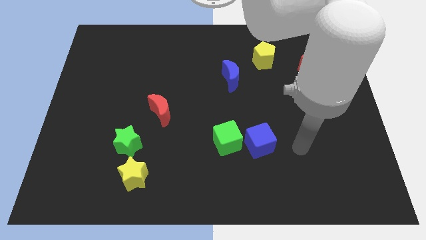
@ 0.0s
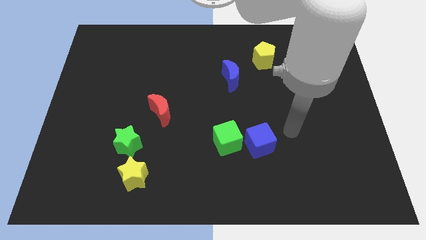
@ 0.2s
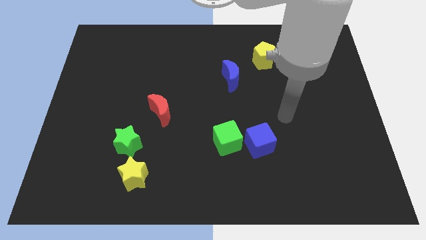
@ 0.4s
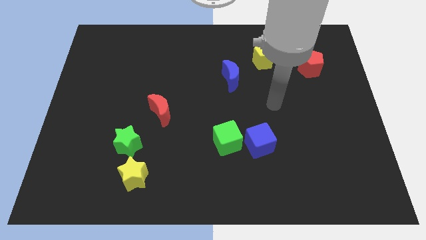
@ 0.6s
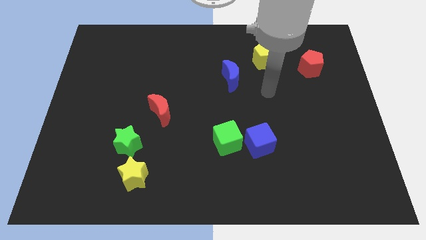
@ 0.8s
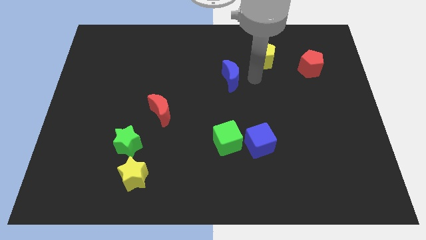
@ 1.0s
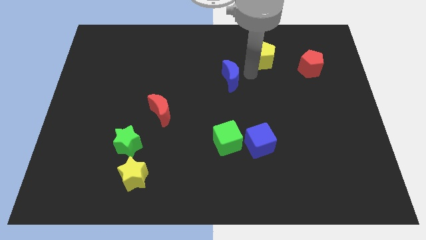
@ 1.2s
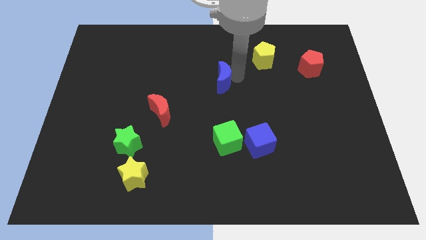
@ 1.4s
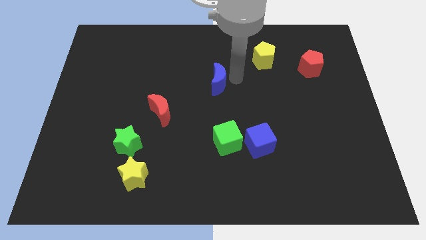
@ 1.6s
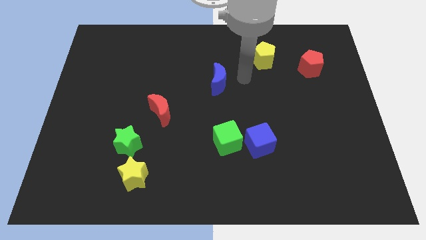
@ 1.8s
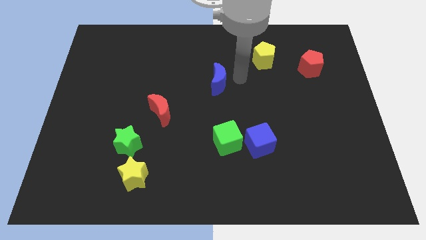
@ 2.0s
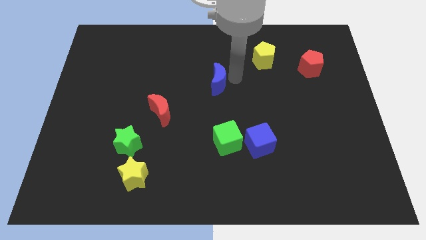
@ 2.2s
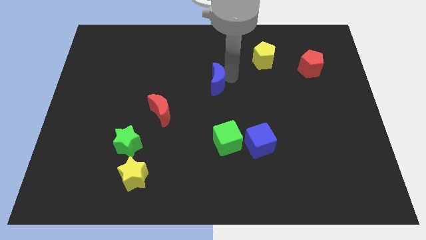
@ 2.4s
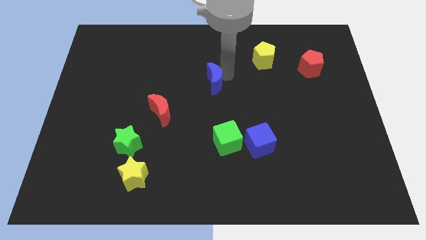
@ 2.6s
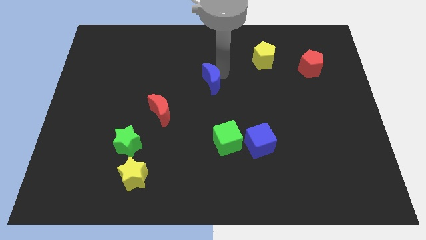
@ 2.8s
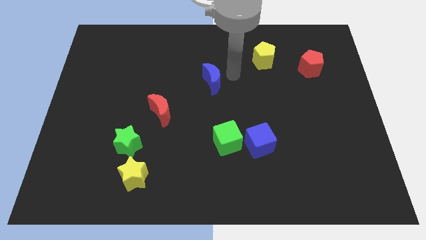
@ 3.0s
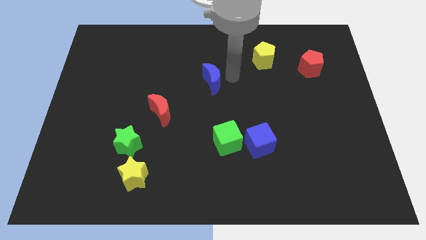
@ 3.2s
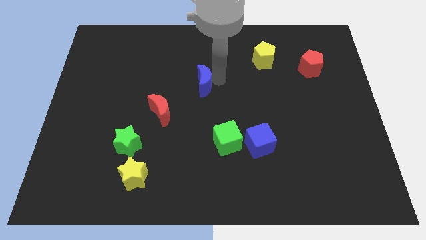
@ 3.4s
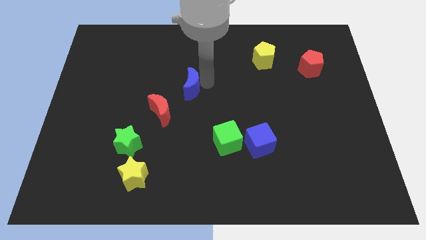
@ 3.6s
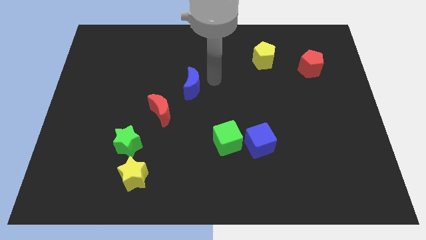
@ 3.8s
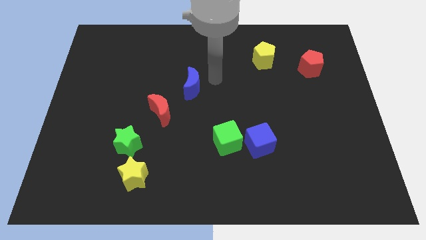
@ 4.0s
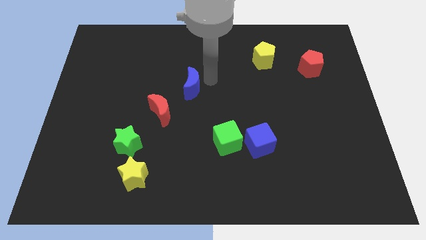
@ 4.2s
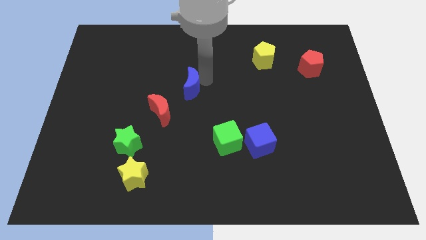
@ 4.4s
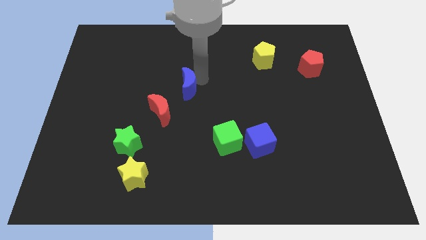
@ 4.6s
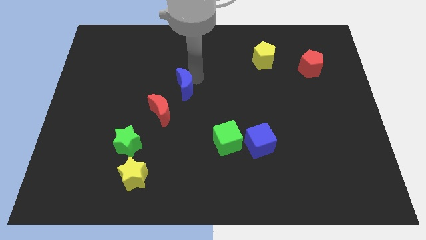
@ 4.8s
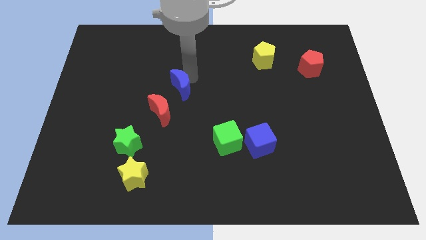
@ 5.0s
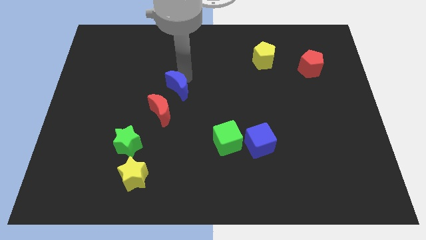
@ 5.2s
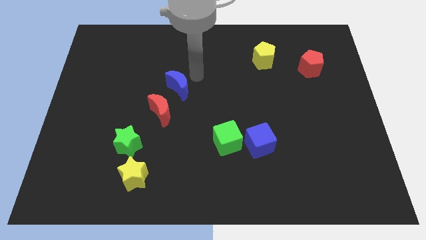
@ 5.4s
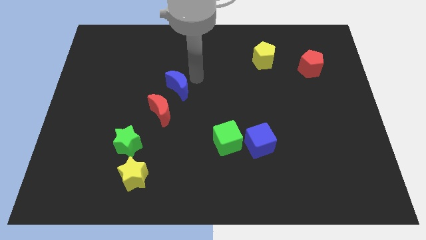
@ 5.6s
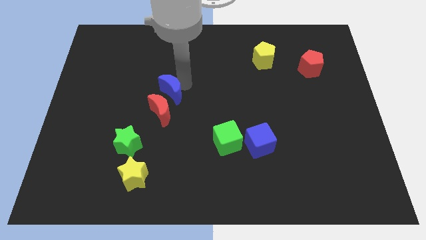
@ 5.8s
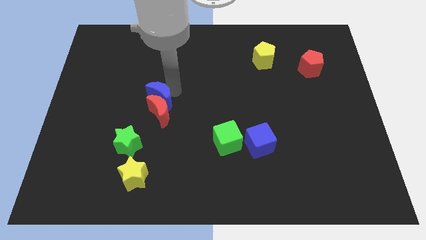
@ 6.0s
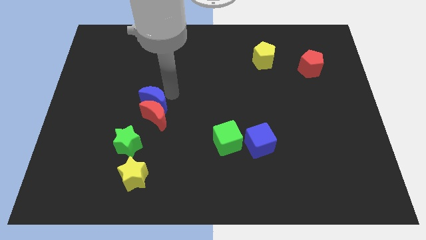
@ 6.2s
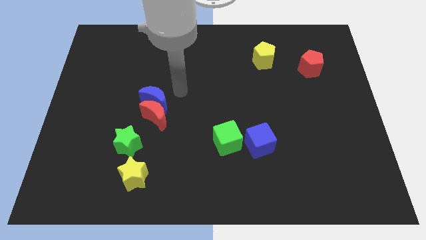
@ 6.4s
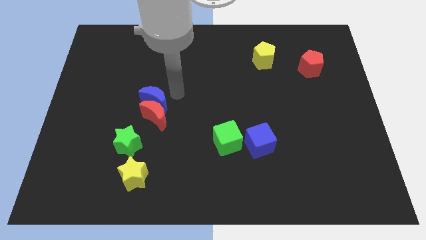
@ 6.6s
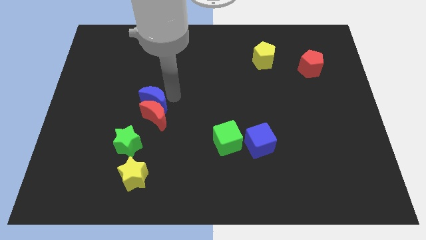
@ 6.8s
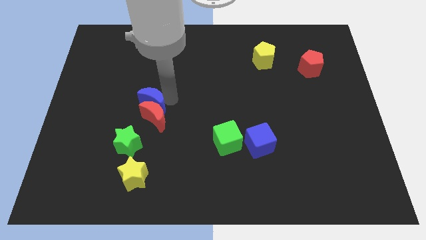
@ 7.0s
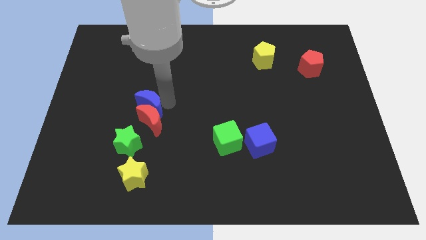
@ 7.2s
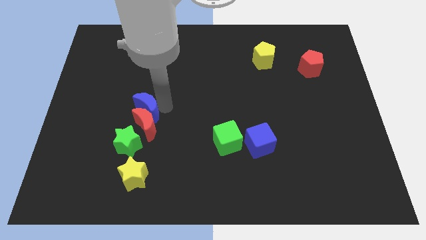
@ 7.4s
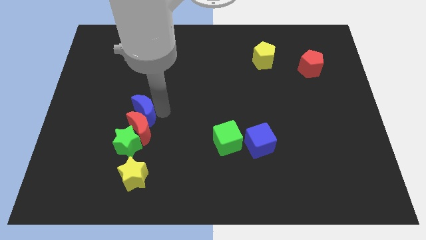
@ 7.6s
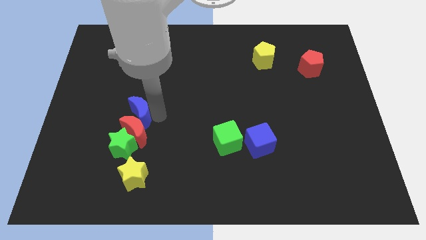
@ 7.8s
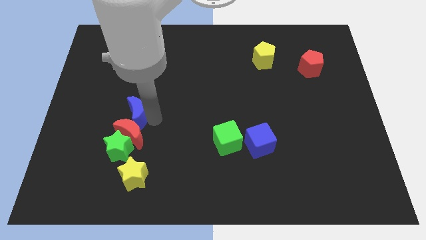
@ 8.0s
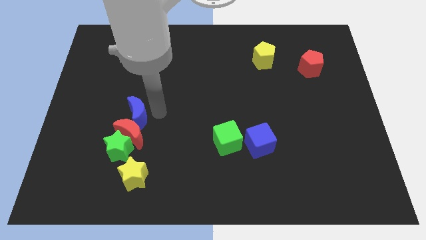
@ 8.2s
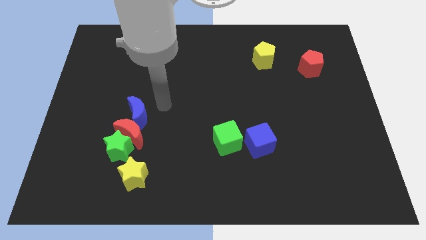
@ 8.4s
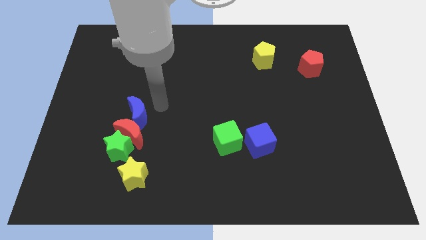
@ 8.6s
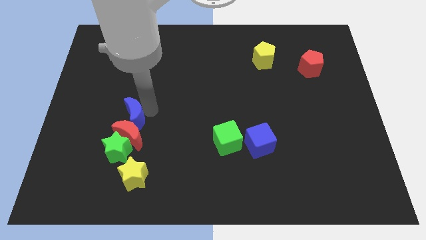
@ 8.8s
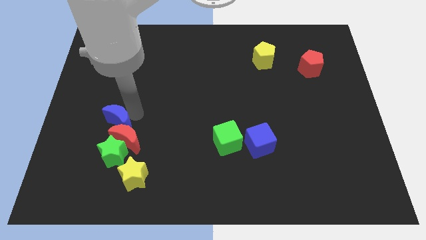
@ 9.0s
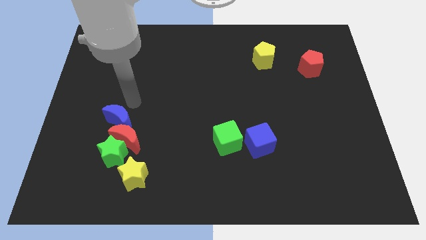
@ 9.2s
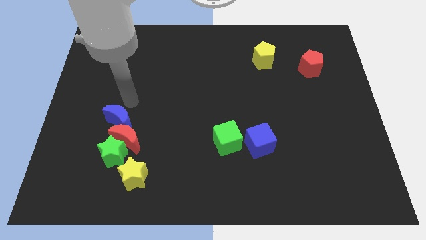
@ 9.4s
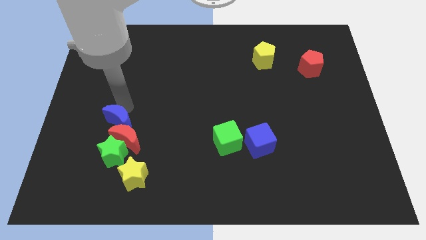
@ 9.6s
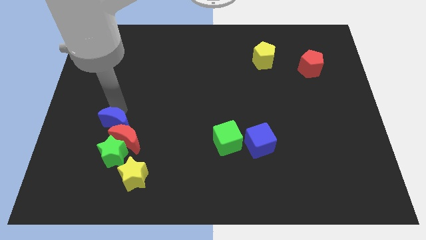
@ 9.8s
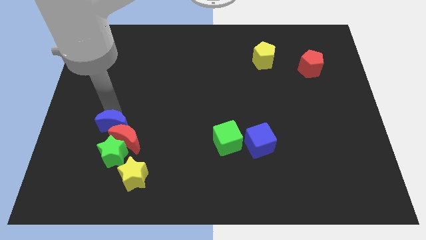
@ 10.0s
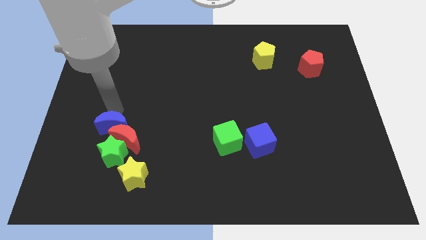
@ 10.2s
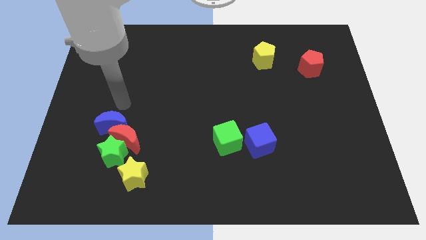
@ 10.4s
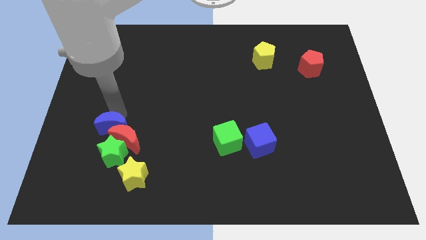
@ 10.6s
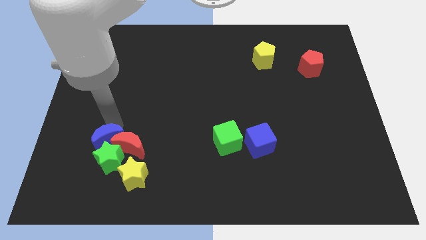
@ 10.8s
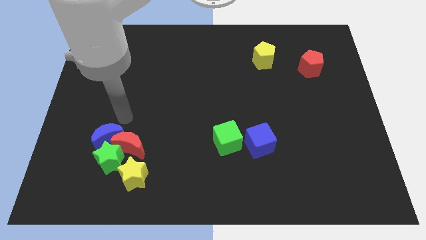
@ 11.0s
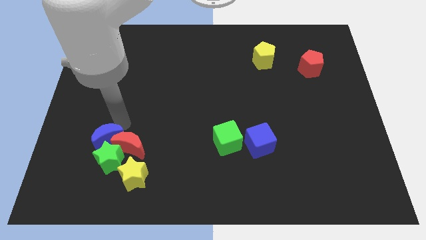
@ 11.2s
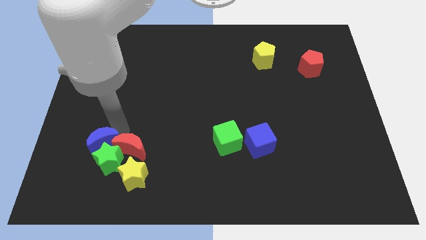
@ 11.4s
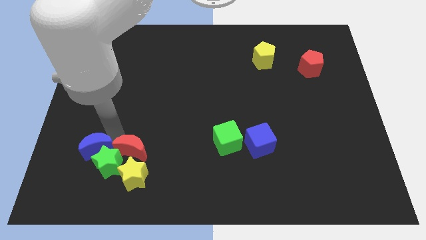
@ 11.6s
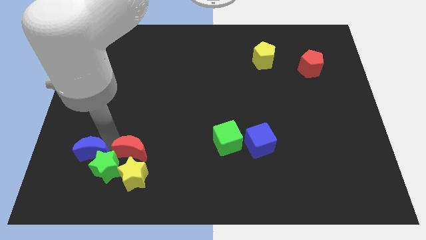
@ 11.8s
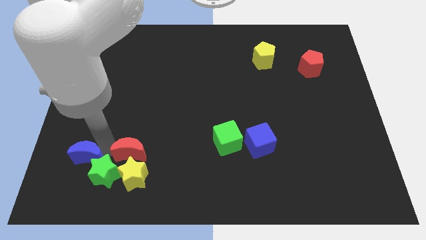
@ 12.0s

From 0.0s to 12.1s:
put the blue moon left of the yellow star
